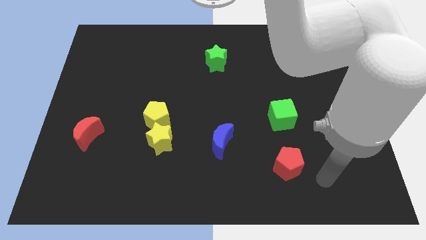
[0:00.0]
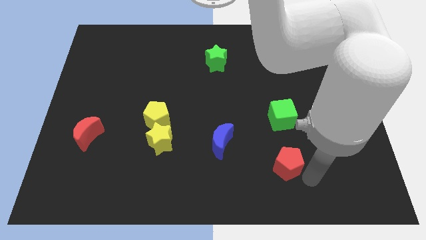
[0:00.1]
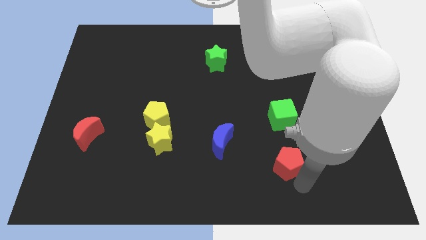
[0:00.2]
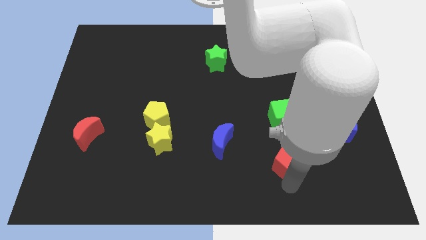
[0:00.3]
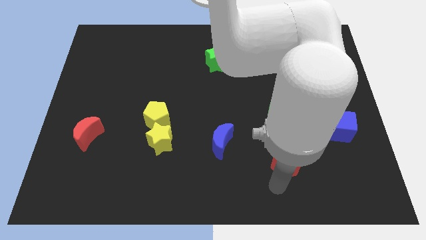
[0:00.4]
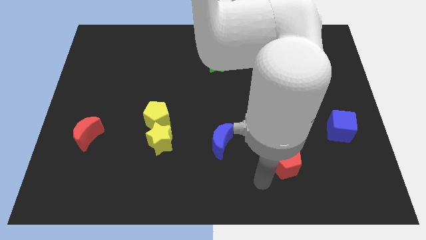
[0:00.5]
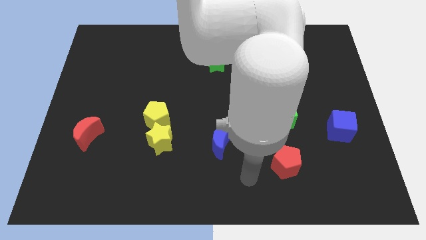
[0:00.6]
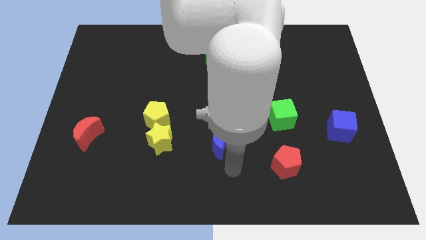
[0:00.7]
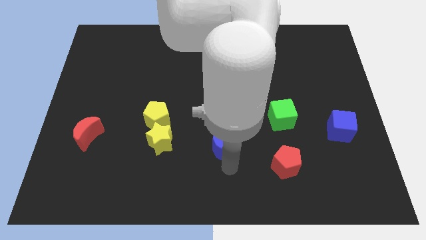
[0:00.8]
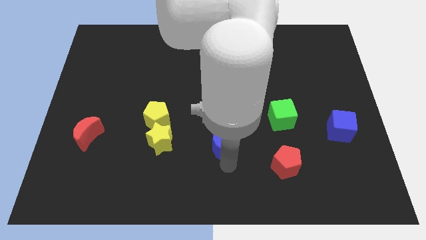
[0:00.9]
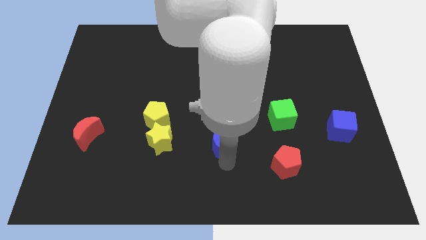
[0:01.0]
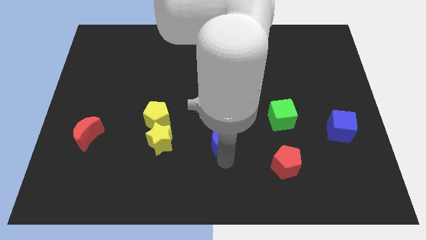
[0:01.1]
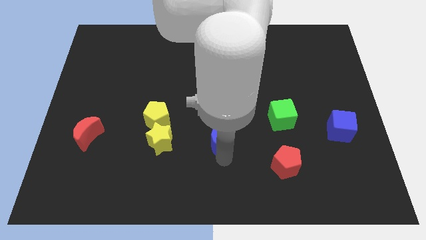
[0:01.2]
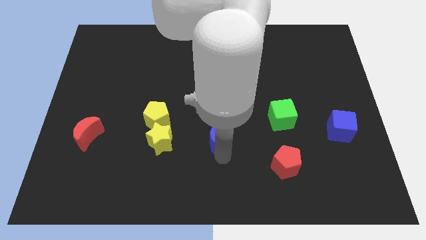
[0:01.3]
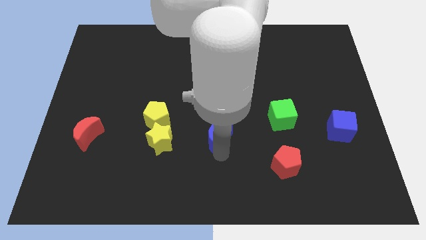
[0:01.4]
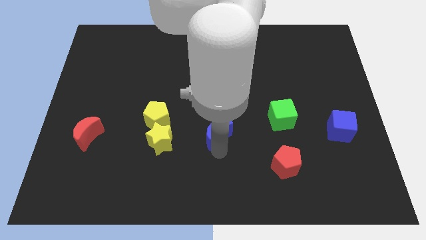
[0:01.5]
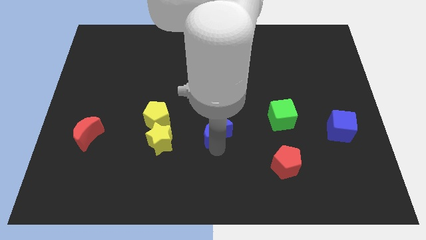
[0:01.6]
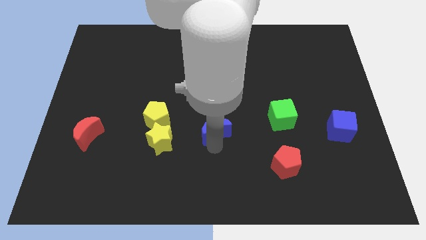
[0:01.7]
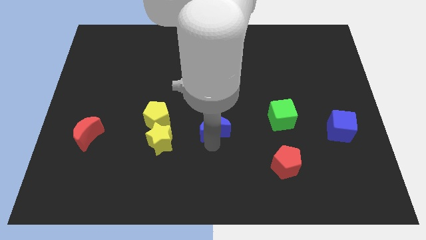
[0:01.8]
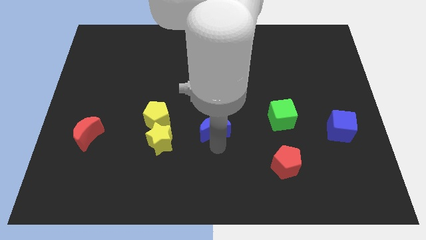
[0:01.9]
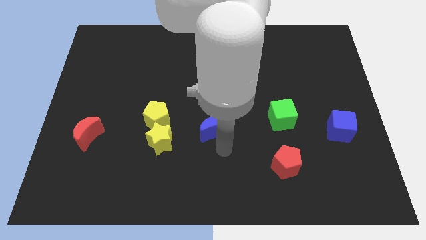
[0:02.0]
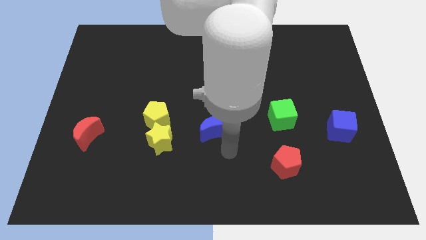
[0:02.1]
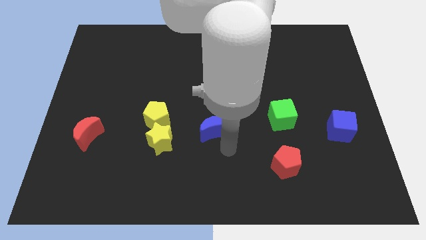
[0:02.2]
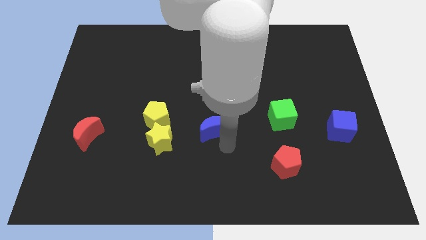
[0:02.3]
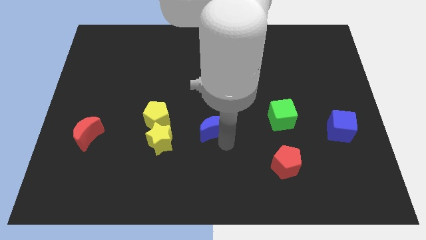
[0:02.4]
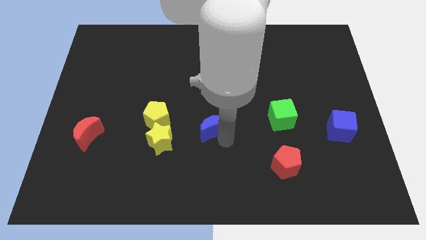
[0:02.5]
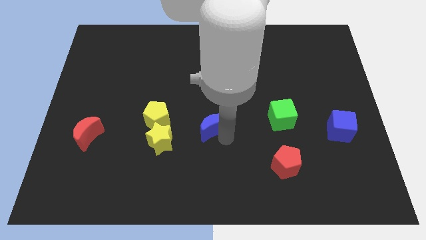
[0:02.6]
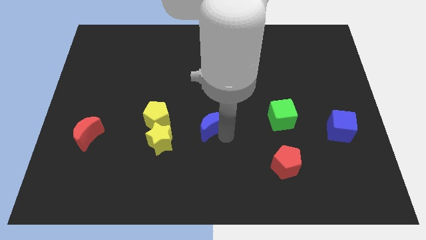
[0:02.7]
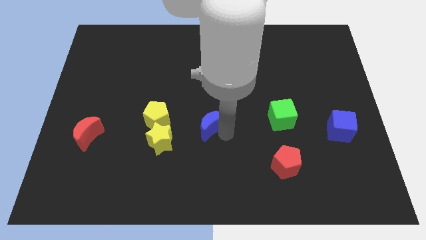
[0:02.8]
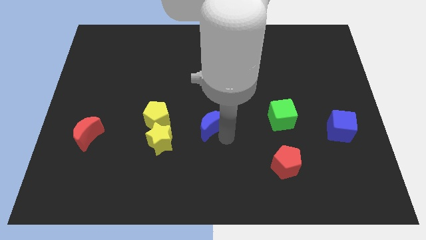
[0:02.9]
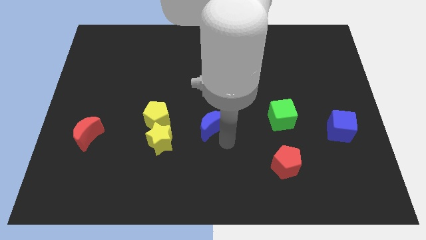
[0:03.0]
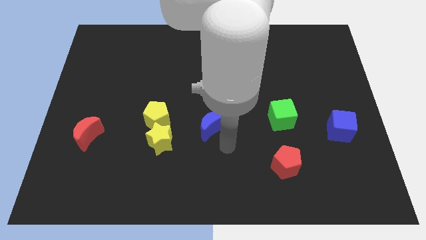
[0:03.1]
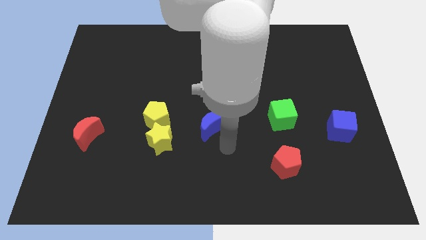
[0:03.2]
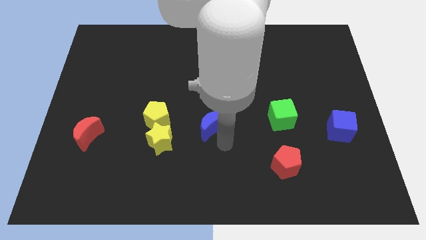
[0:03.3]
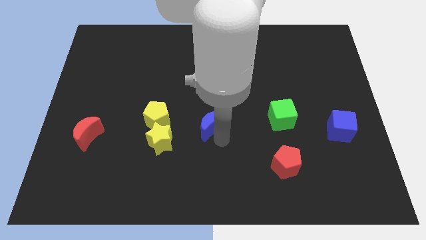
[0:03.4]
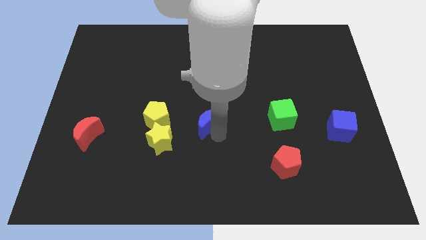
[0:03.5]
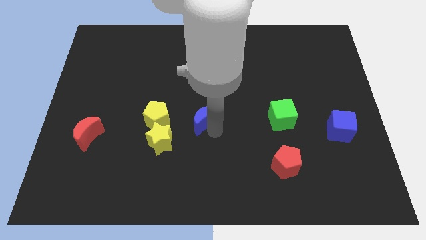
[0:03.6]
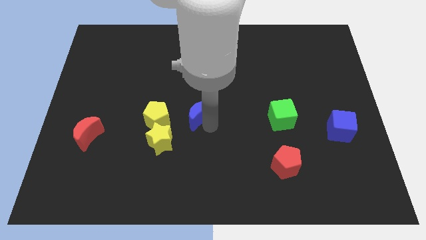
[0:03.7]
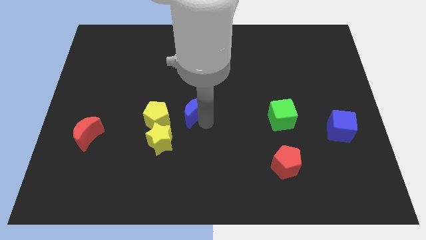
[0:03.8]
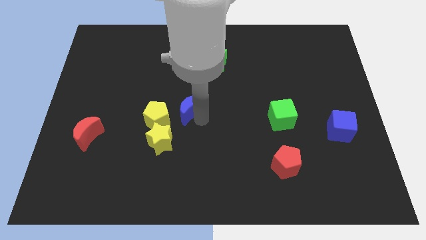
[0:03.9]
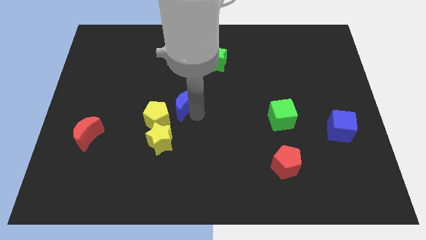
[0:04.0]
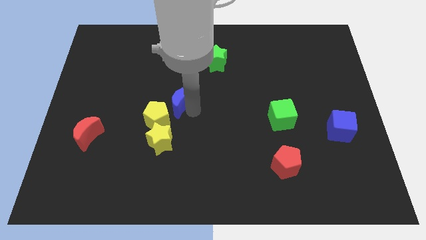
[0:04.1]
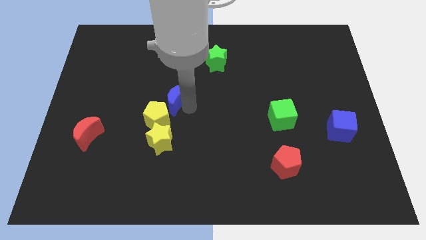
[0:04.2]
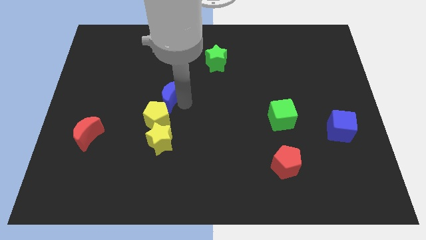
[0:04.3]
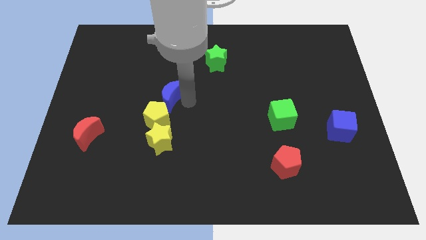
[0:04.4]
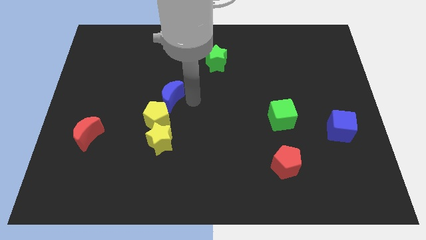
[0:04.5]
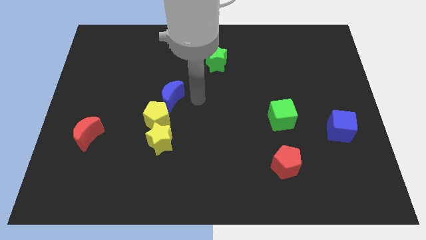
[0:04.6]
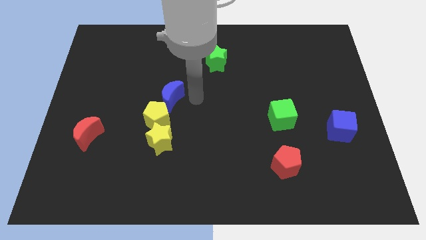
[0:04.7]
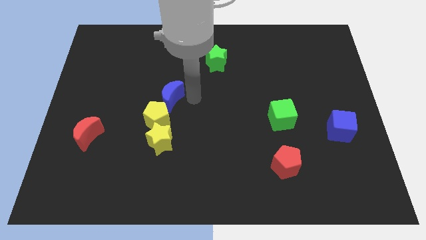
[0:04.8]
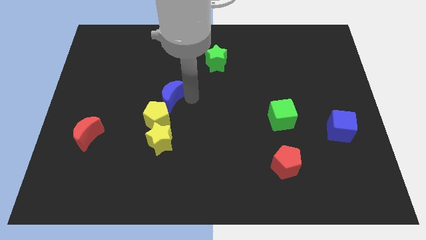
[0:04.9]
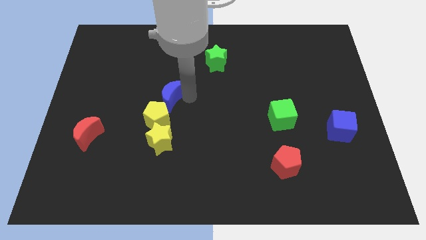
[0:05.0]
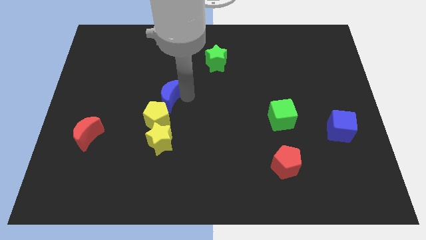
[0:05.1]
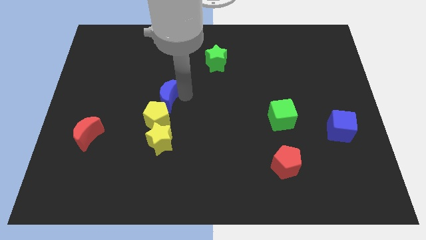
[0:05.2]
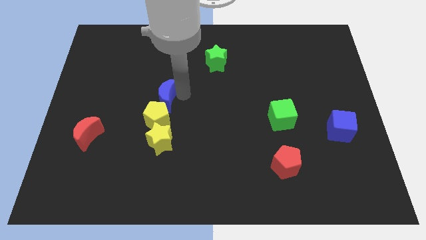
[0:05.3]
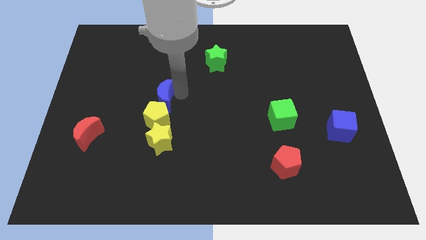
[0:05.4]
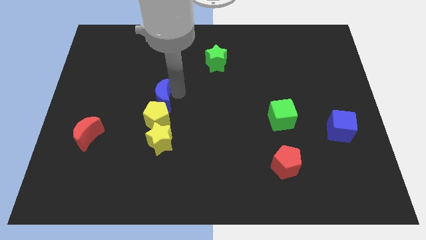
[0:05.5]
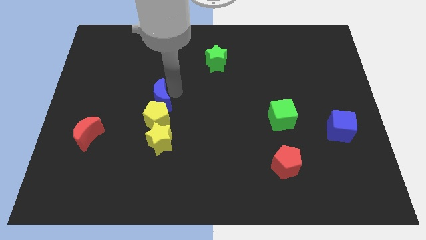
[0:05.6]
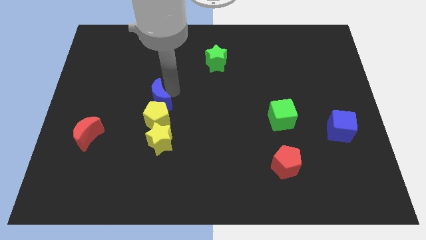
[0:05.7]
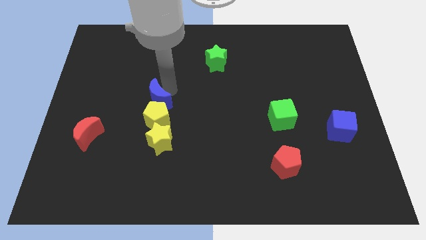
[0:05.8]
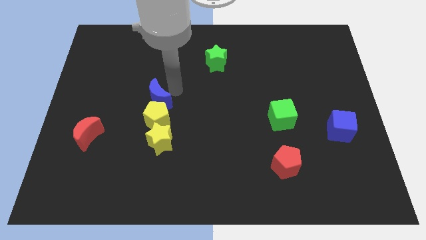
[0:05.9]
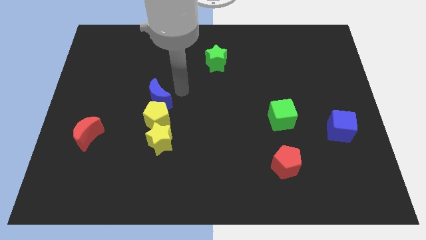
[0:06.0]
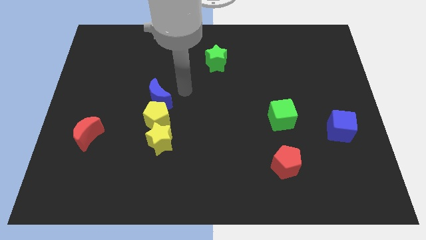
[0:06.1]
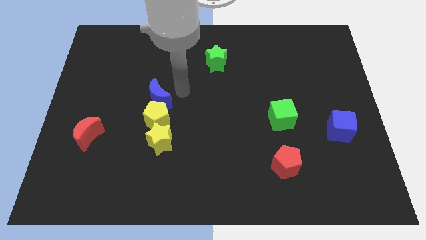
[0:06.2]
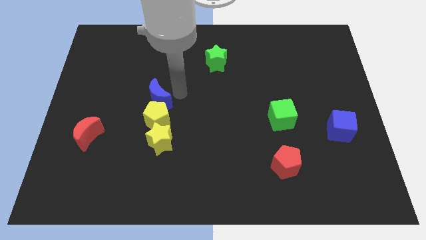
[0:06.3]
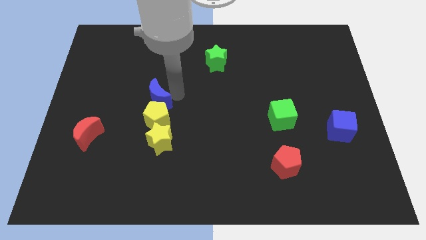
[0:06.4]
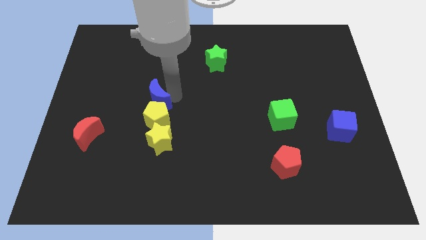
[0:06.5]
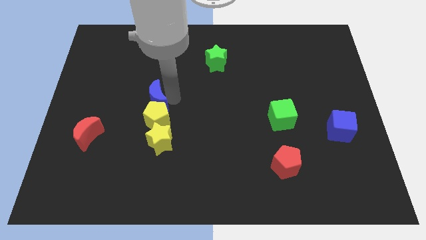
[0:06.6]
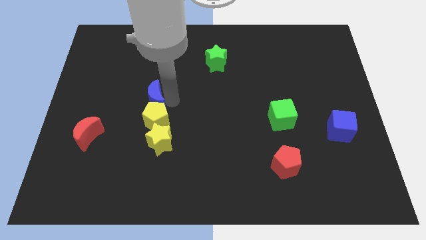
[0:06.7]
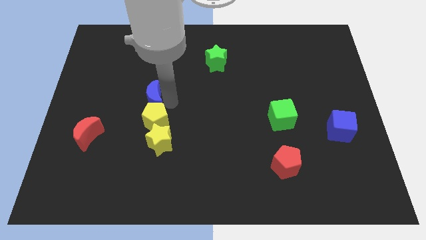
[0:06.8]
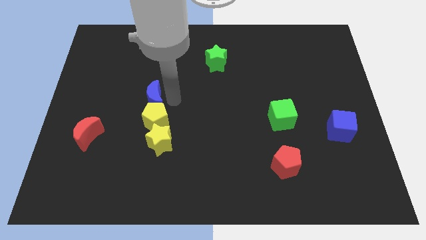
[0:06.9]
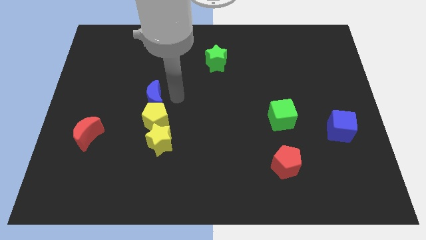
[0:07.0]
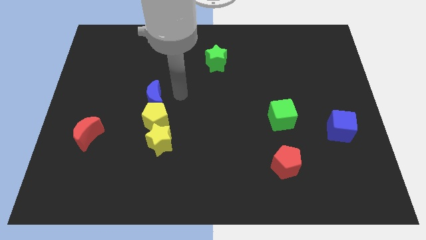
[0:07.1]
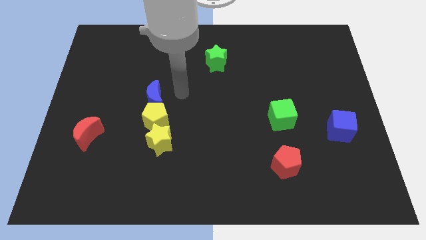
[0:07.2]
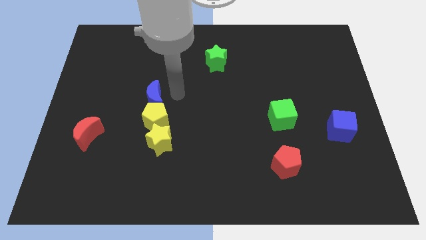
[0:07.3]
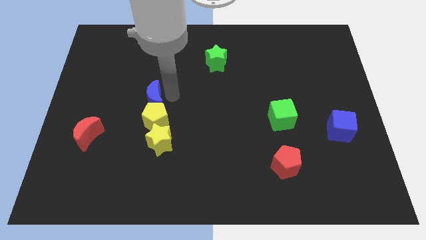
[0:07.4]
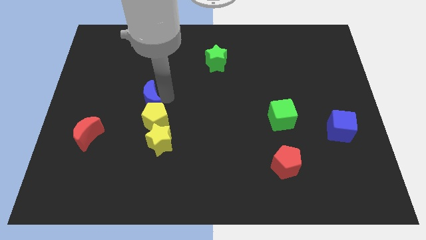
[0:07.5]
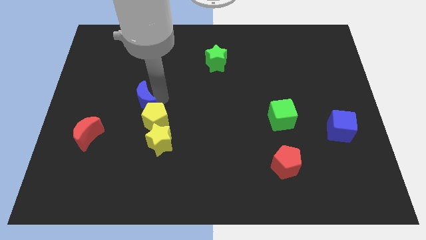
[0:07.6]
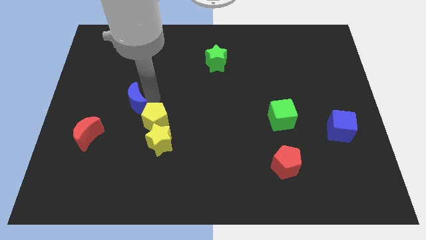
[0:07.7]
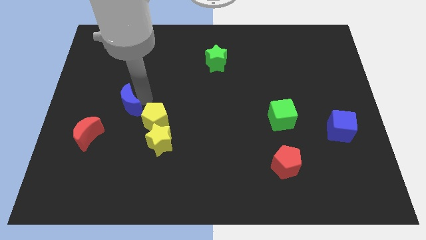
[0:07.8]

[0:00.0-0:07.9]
slide the blue moon just left of the yellow pentagon
